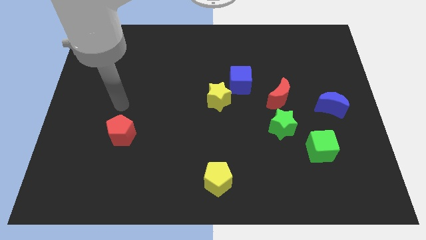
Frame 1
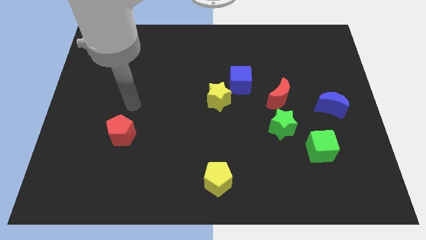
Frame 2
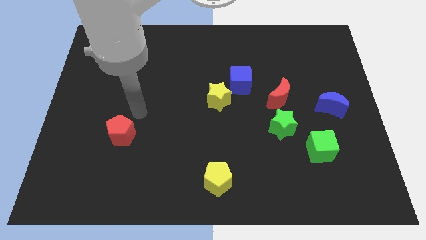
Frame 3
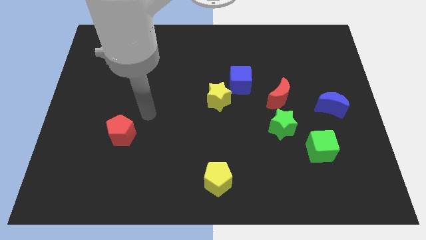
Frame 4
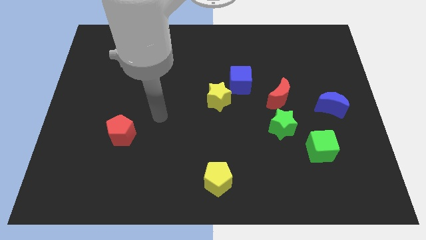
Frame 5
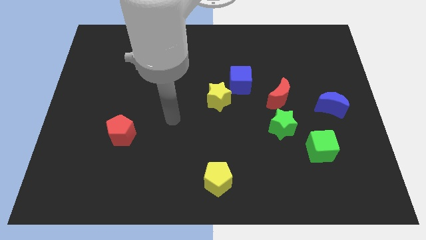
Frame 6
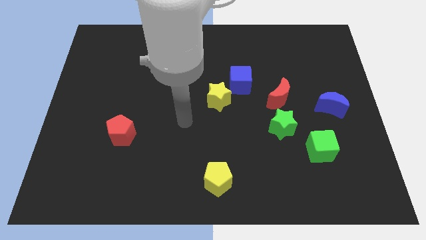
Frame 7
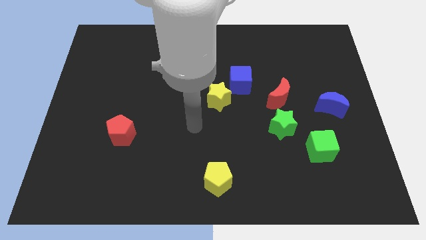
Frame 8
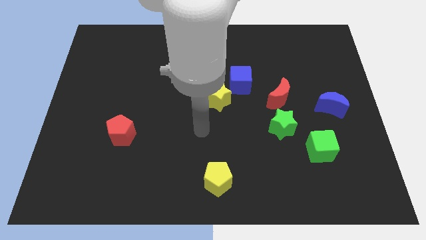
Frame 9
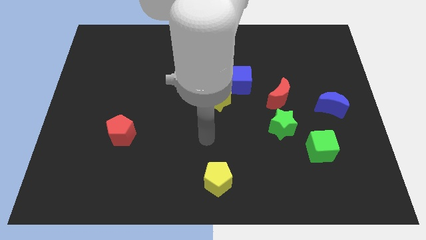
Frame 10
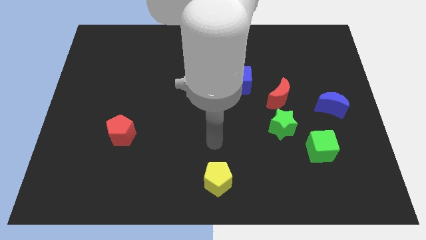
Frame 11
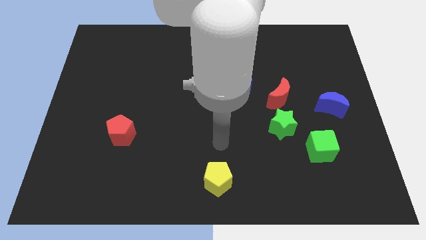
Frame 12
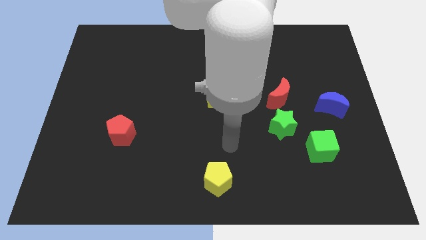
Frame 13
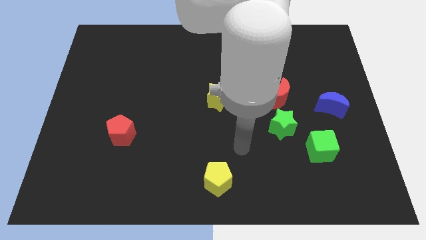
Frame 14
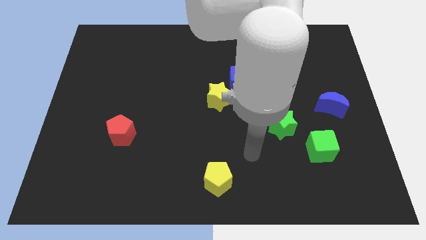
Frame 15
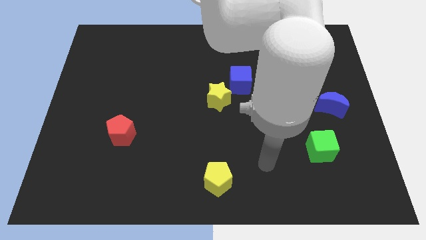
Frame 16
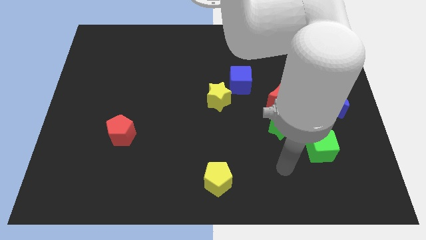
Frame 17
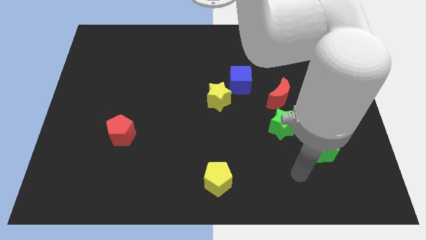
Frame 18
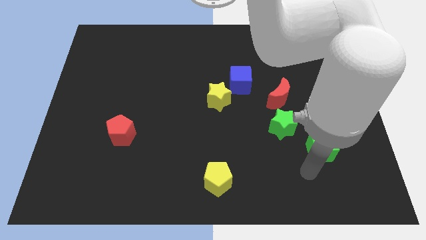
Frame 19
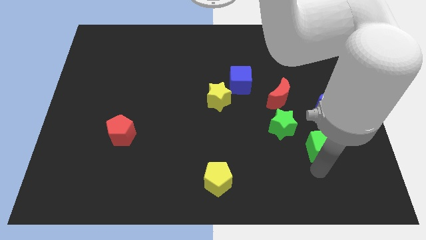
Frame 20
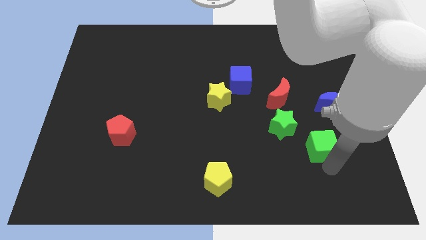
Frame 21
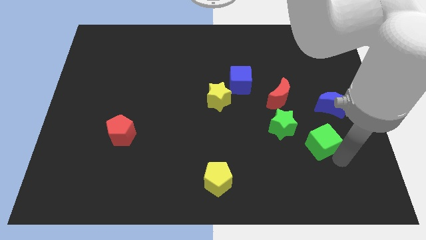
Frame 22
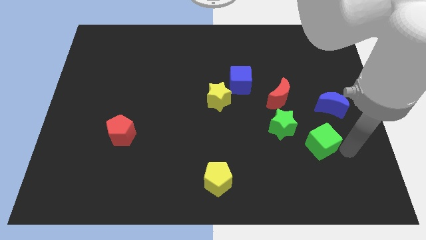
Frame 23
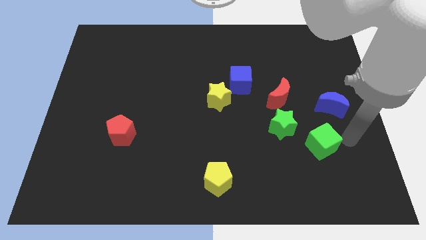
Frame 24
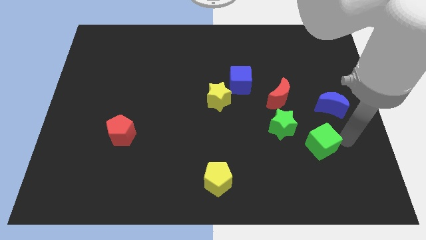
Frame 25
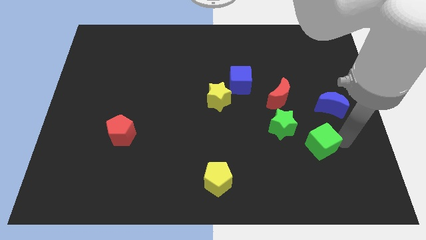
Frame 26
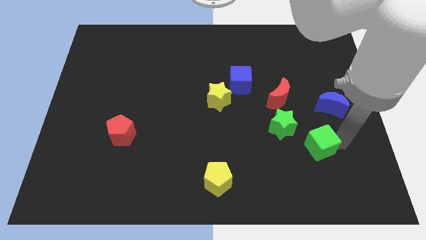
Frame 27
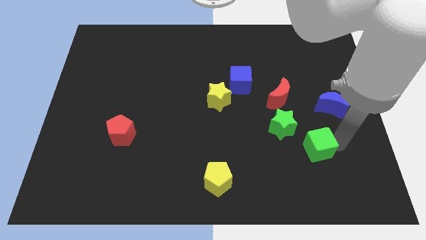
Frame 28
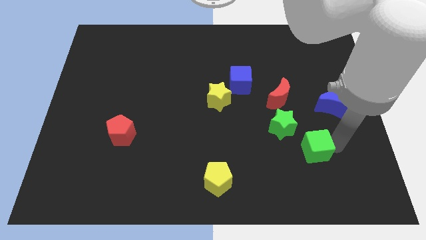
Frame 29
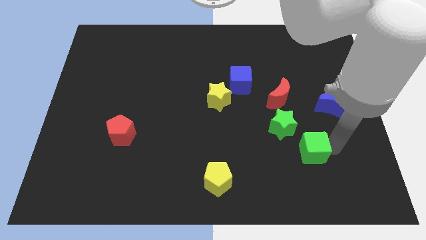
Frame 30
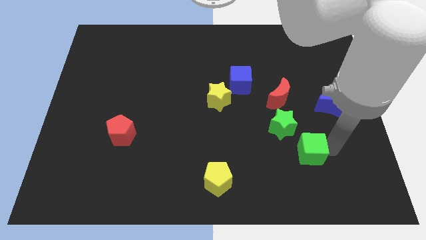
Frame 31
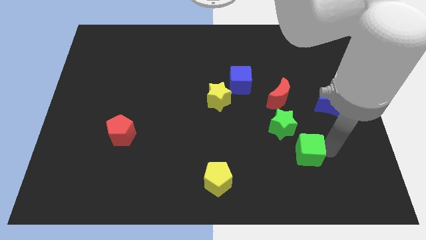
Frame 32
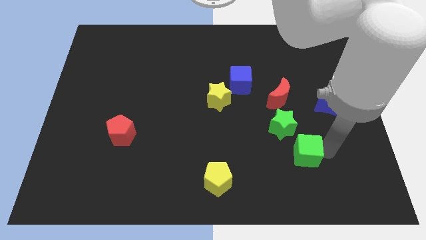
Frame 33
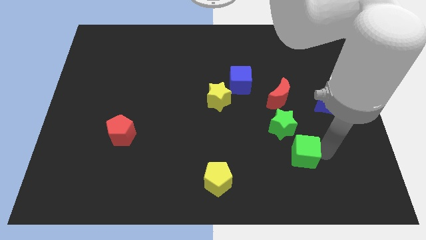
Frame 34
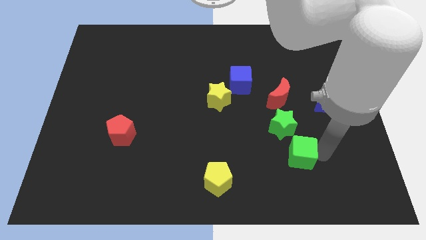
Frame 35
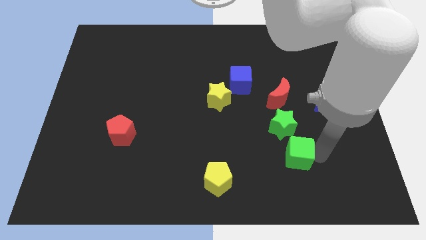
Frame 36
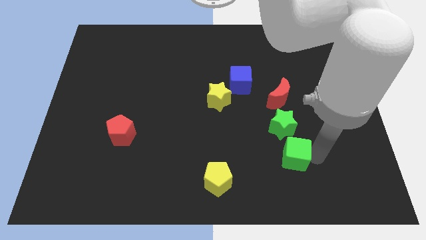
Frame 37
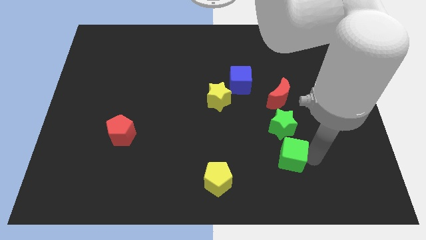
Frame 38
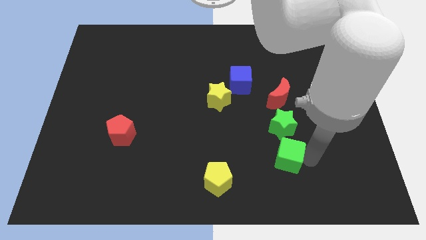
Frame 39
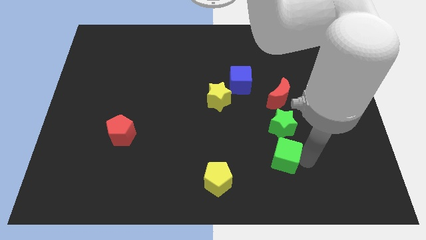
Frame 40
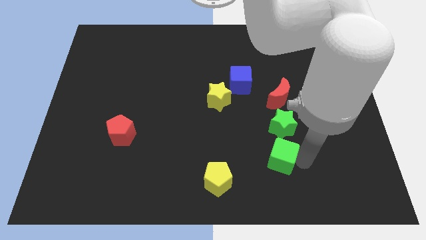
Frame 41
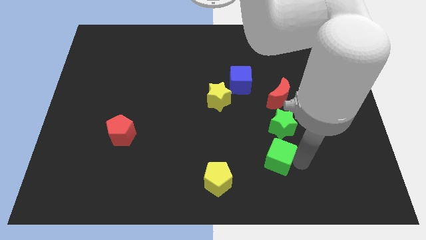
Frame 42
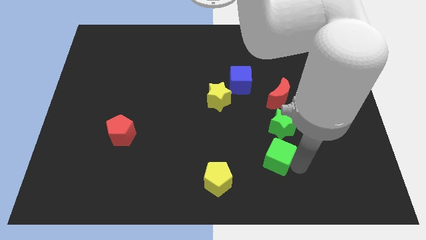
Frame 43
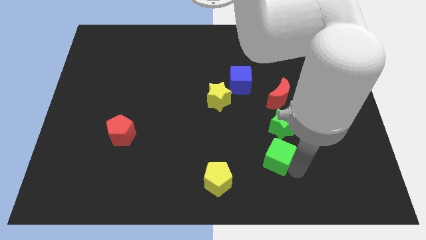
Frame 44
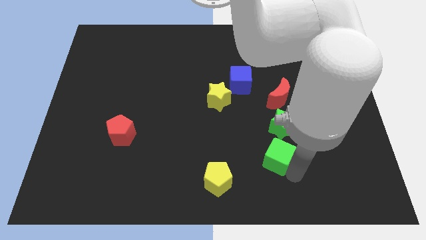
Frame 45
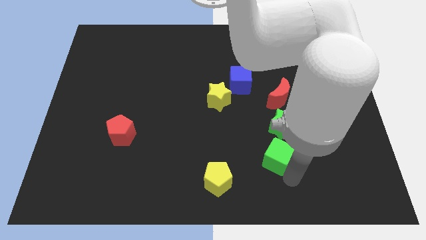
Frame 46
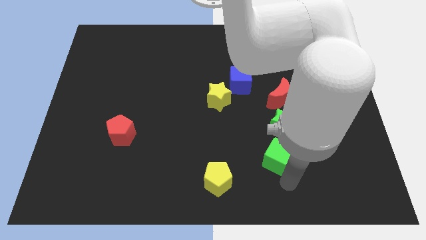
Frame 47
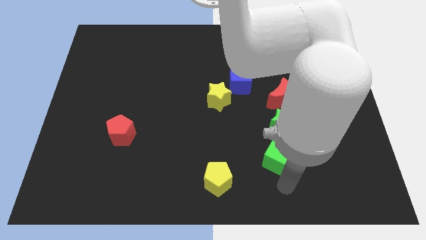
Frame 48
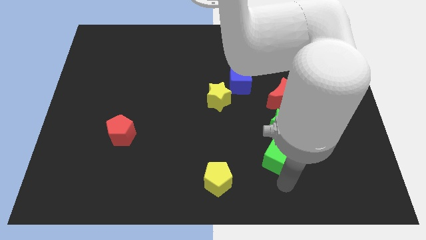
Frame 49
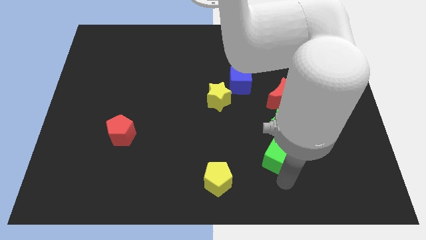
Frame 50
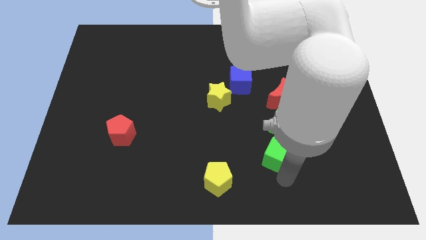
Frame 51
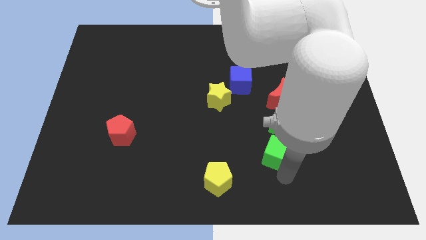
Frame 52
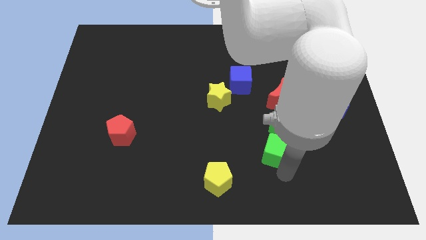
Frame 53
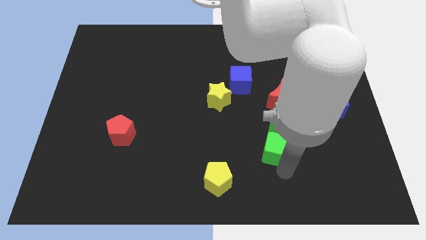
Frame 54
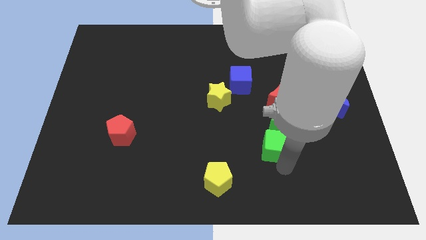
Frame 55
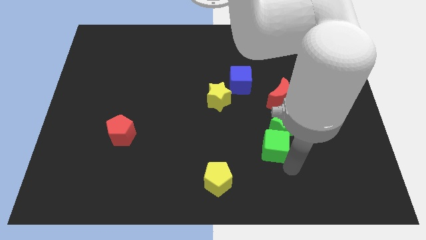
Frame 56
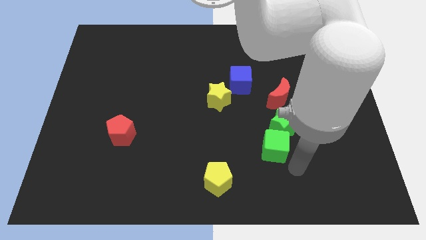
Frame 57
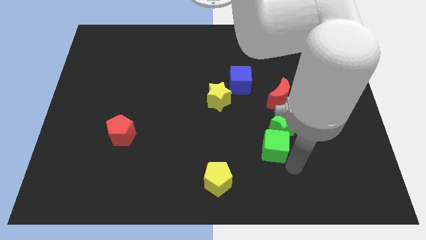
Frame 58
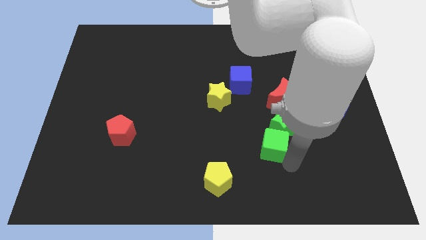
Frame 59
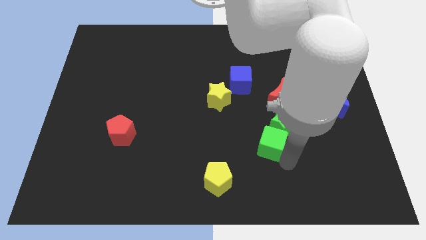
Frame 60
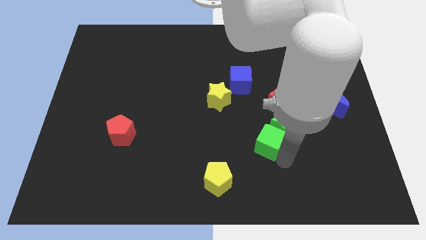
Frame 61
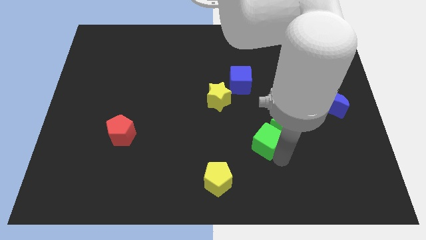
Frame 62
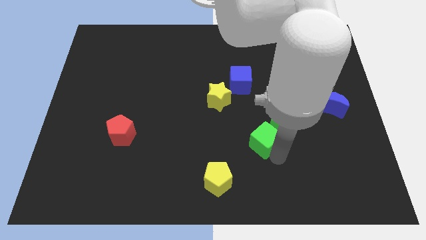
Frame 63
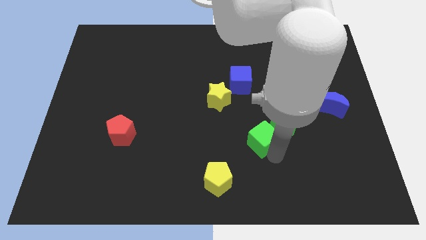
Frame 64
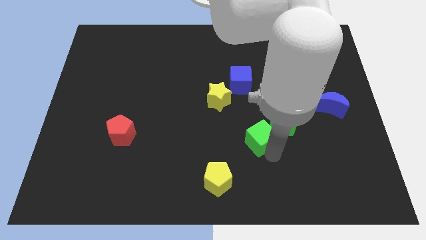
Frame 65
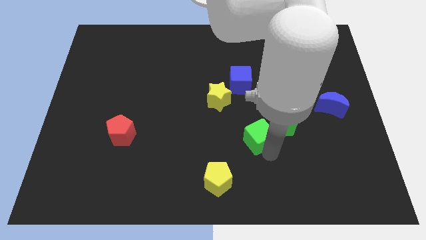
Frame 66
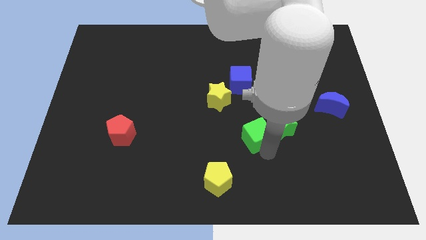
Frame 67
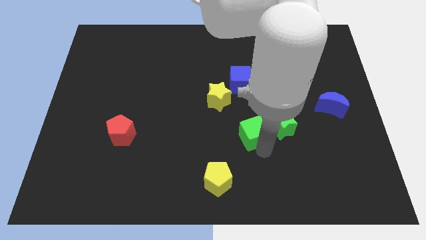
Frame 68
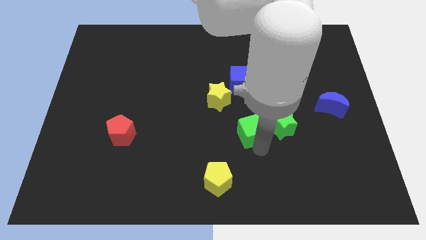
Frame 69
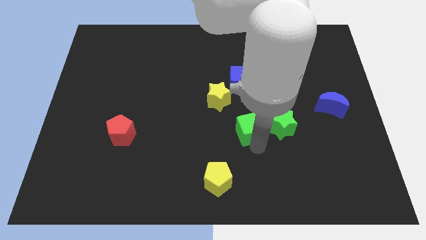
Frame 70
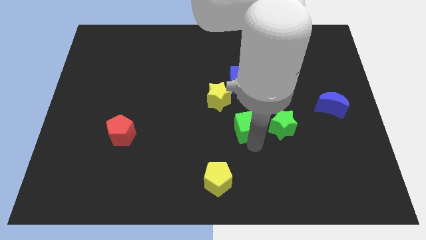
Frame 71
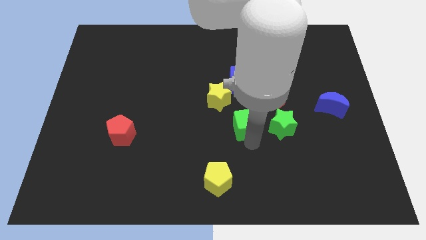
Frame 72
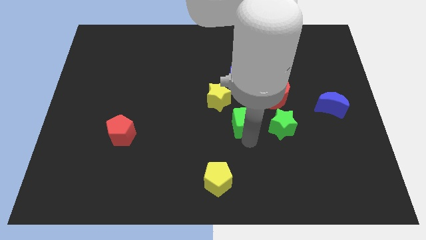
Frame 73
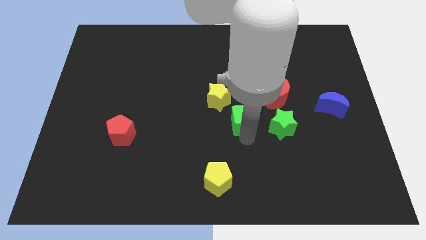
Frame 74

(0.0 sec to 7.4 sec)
slide the green cube diagonally up and to the left of the green star
